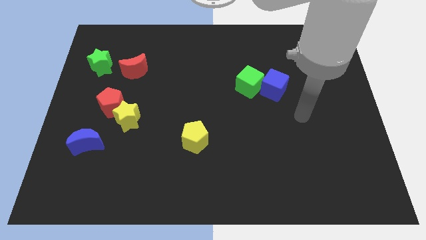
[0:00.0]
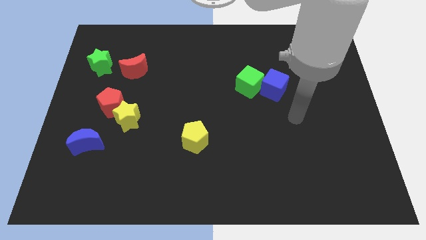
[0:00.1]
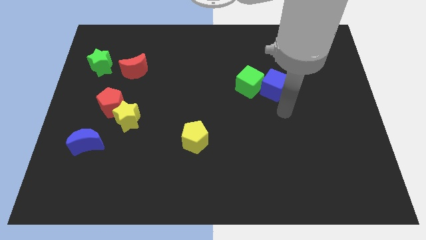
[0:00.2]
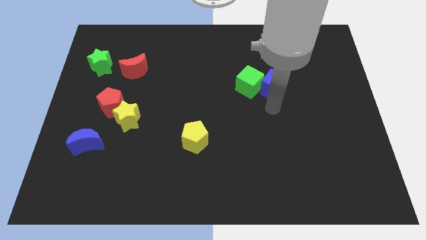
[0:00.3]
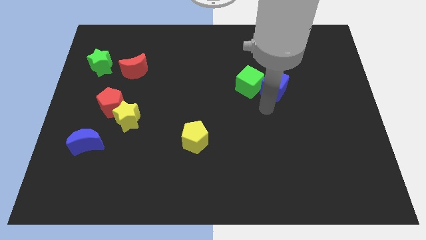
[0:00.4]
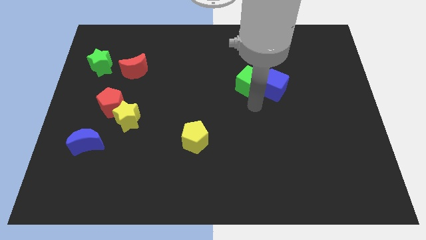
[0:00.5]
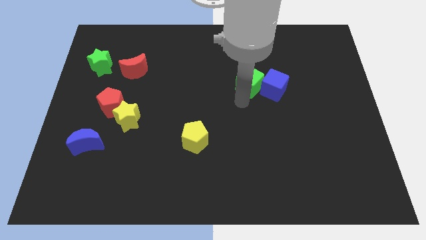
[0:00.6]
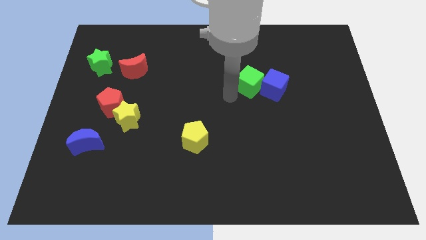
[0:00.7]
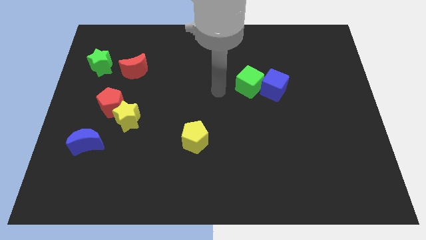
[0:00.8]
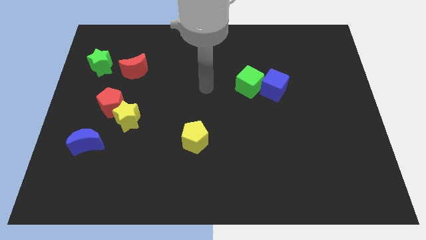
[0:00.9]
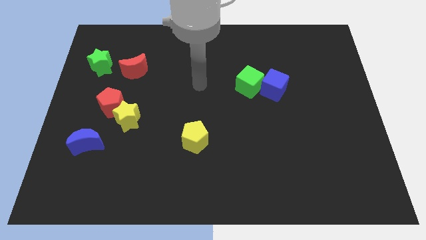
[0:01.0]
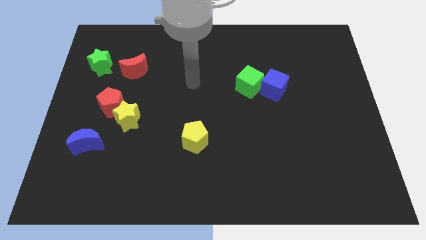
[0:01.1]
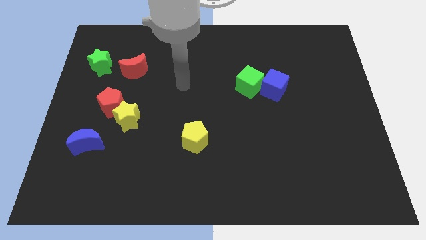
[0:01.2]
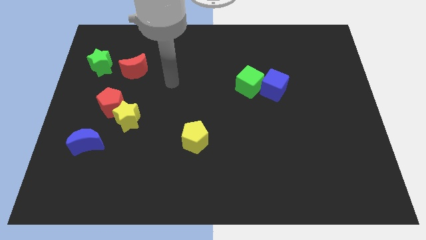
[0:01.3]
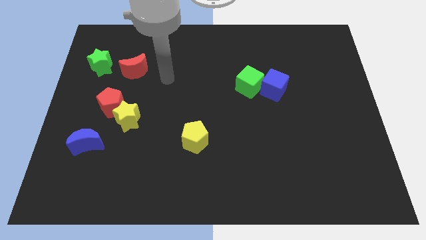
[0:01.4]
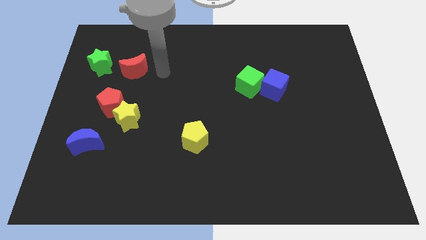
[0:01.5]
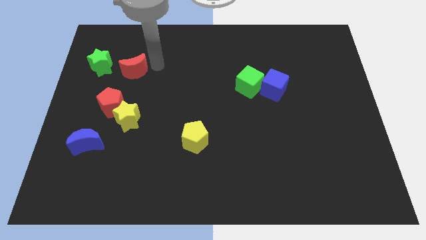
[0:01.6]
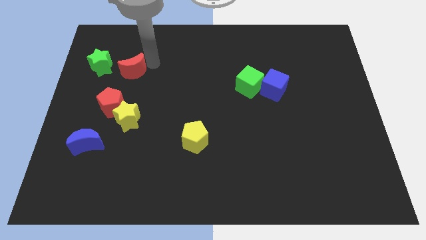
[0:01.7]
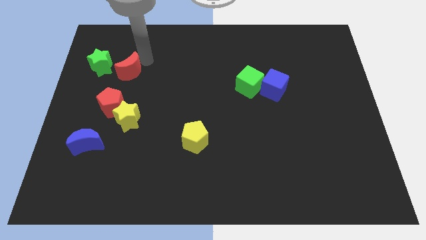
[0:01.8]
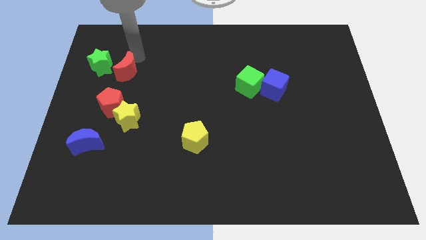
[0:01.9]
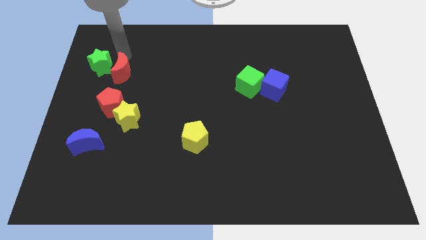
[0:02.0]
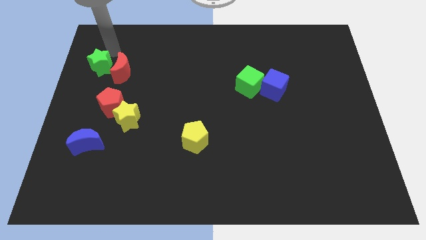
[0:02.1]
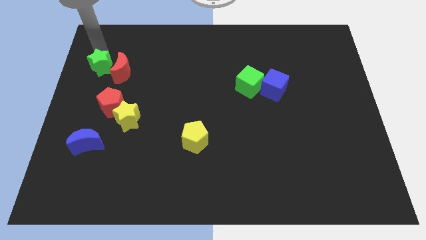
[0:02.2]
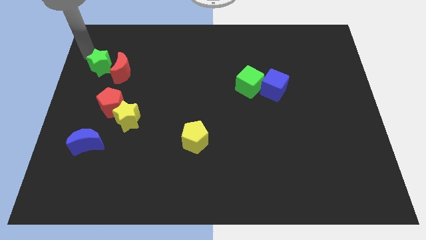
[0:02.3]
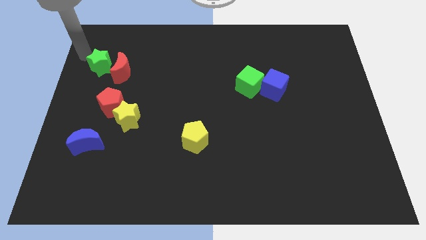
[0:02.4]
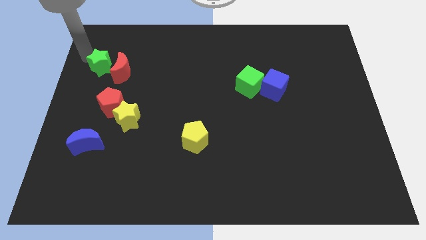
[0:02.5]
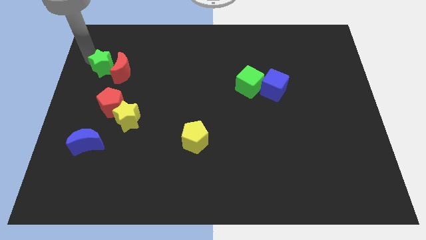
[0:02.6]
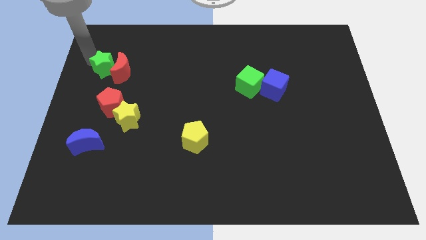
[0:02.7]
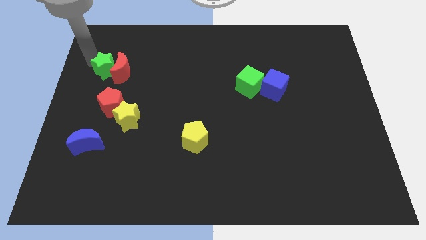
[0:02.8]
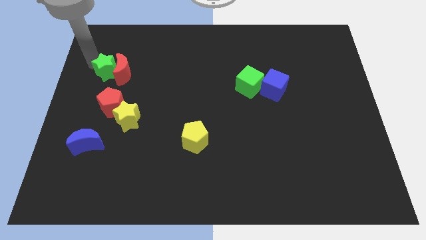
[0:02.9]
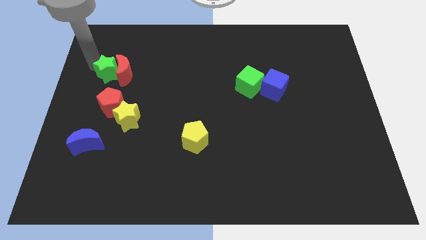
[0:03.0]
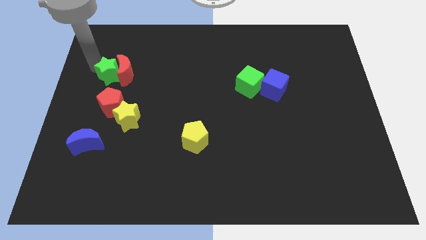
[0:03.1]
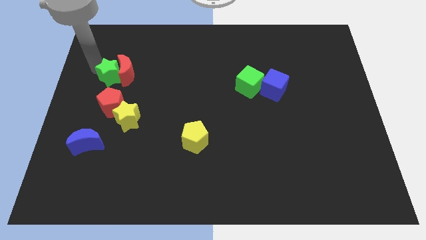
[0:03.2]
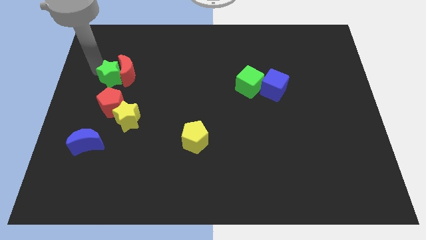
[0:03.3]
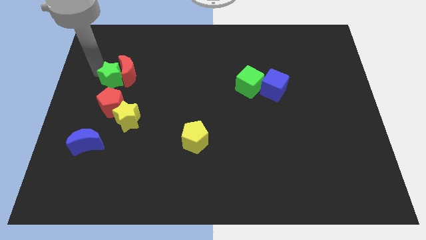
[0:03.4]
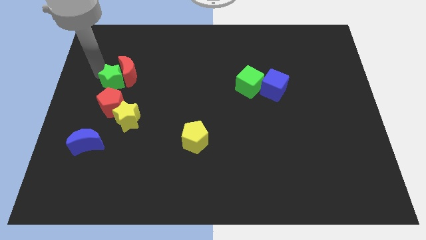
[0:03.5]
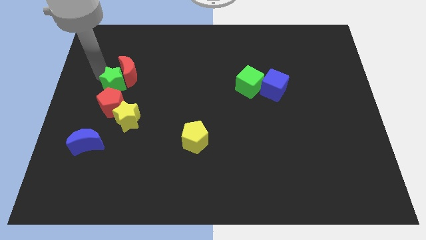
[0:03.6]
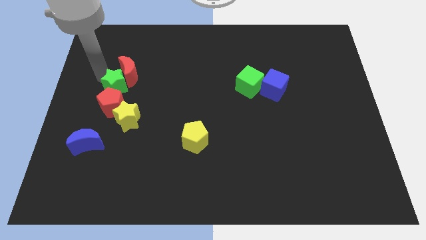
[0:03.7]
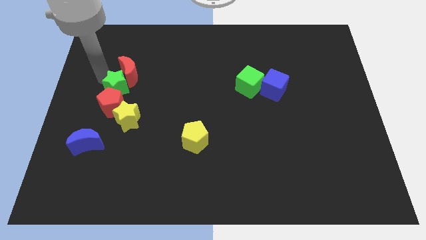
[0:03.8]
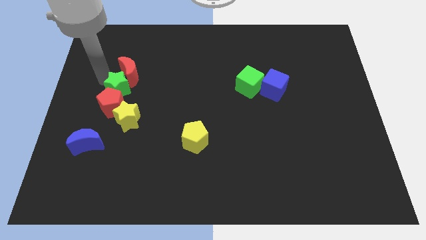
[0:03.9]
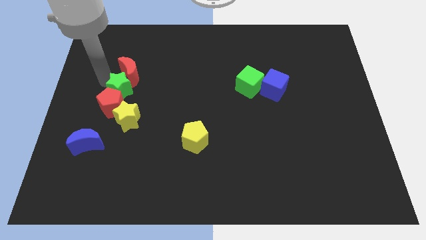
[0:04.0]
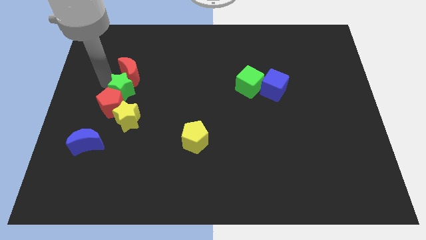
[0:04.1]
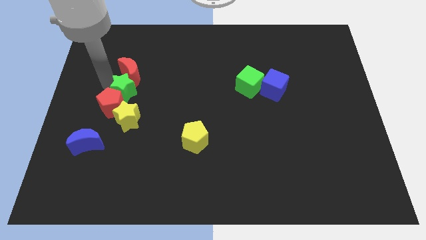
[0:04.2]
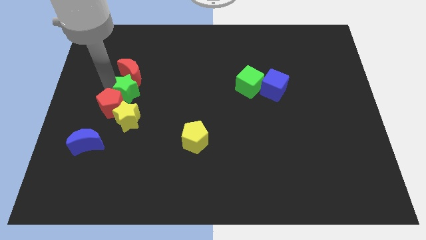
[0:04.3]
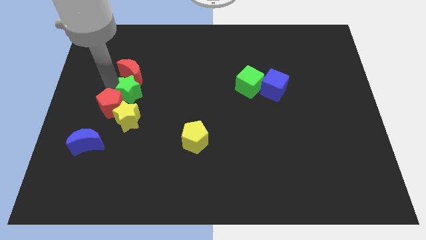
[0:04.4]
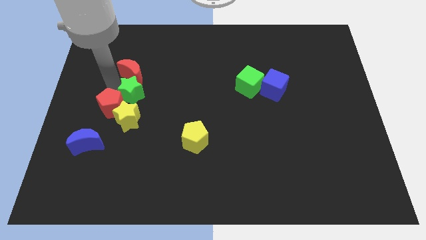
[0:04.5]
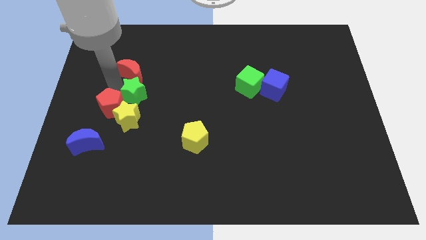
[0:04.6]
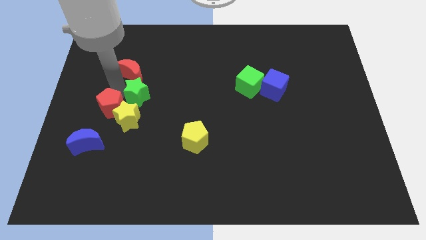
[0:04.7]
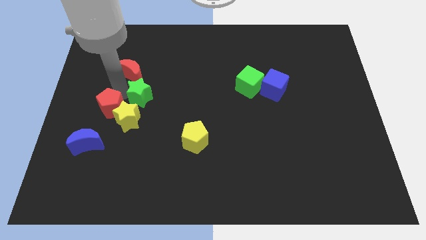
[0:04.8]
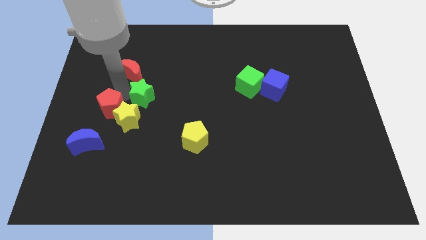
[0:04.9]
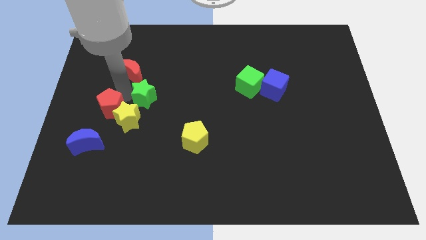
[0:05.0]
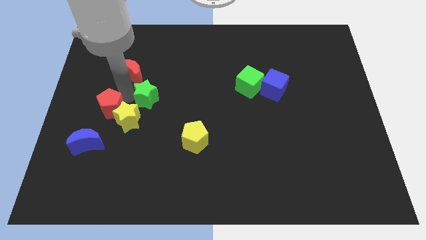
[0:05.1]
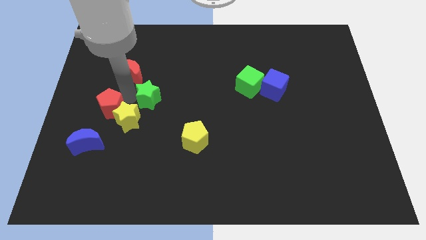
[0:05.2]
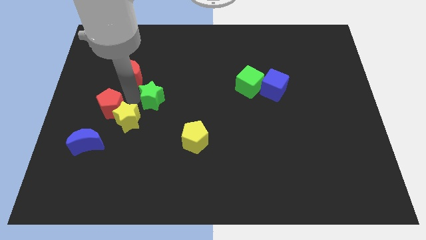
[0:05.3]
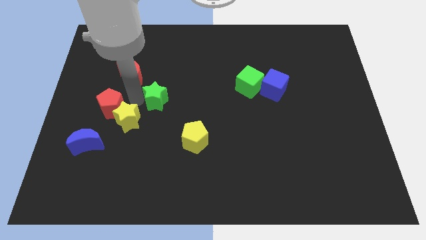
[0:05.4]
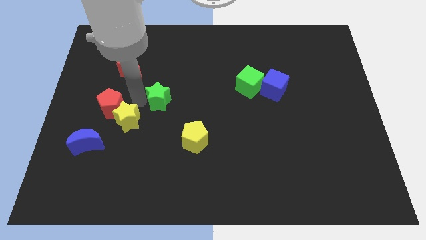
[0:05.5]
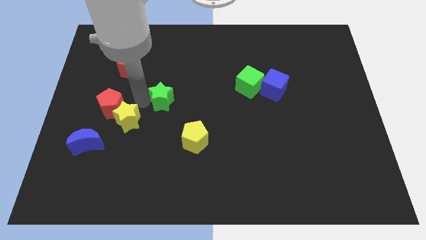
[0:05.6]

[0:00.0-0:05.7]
move the green star to the middle of the board

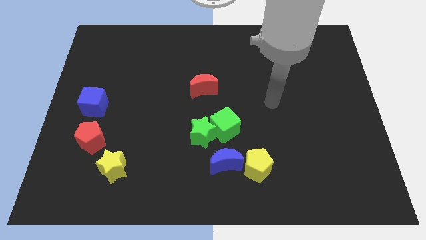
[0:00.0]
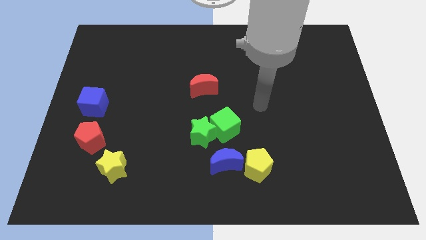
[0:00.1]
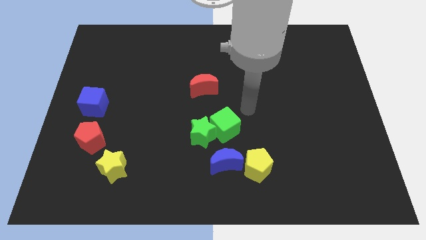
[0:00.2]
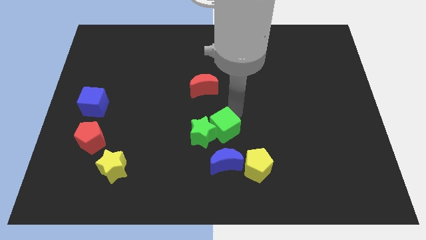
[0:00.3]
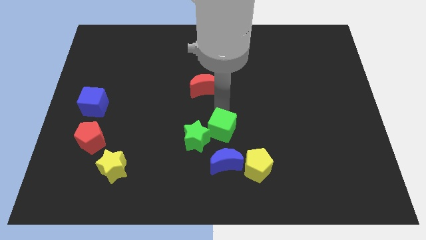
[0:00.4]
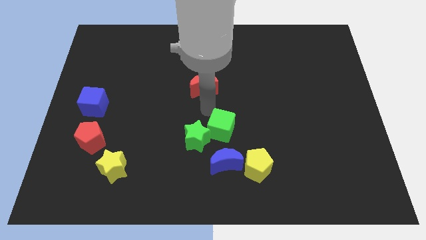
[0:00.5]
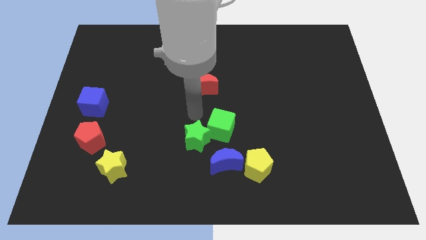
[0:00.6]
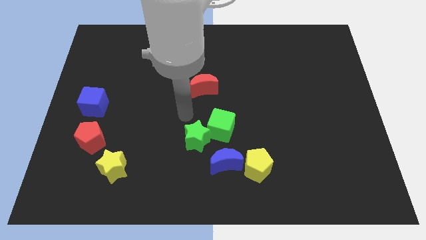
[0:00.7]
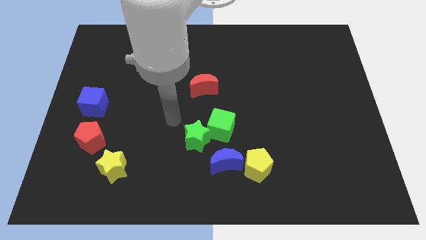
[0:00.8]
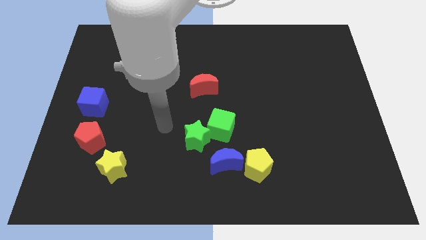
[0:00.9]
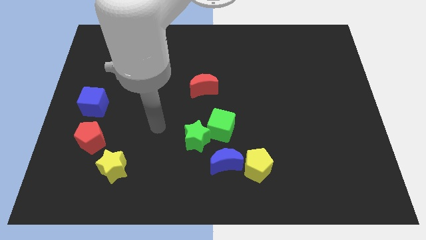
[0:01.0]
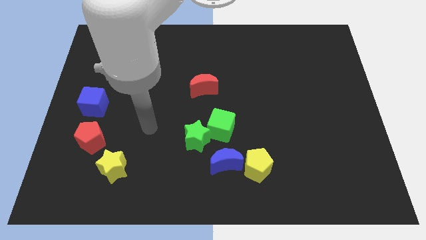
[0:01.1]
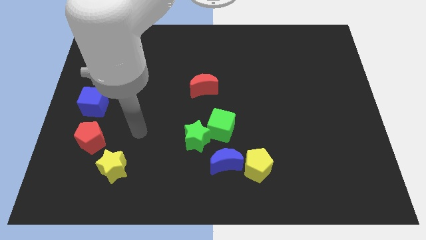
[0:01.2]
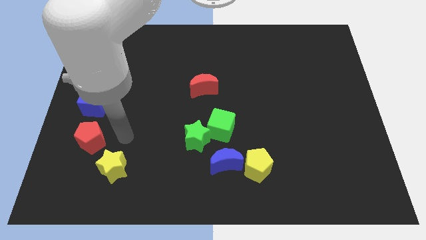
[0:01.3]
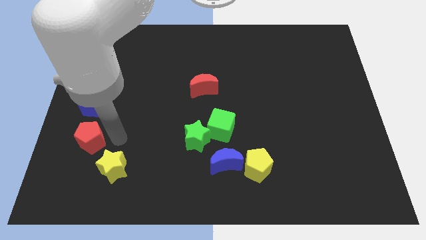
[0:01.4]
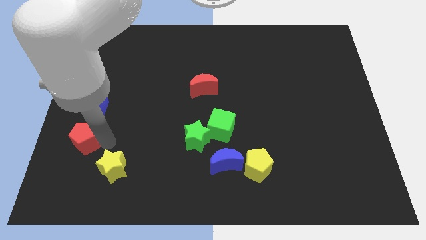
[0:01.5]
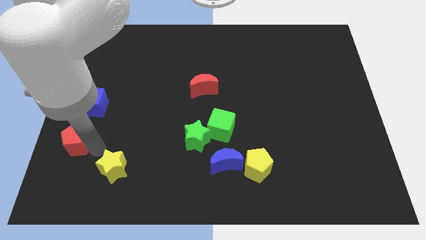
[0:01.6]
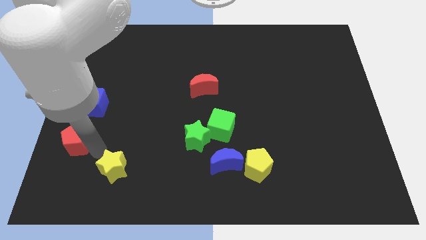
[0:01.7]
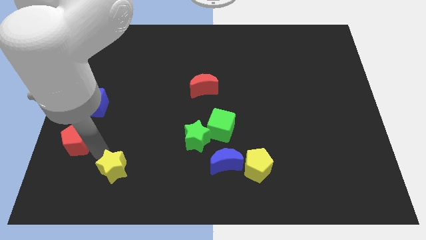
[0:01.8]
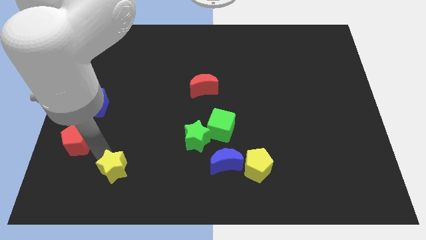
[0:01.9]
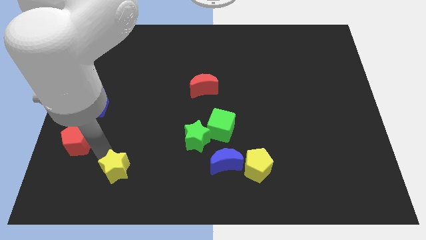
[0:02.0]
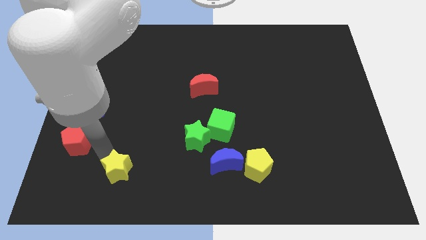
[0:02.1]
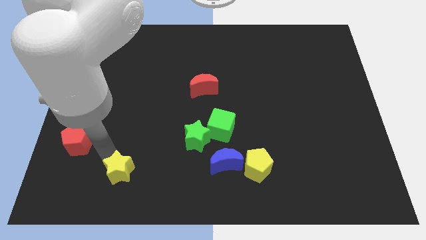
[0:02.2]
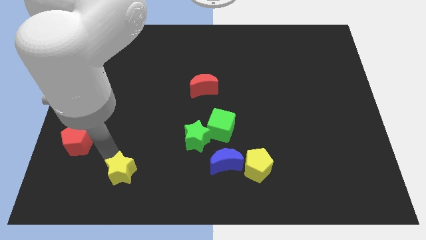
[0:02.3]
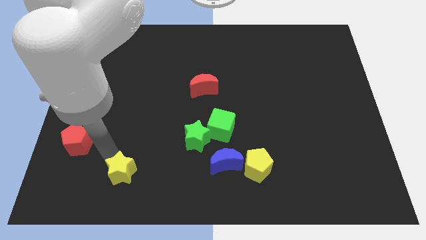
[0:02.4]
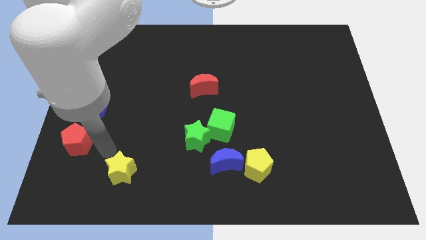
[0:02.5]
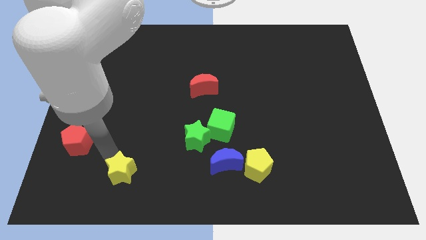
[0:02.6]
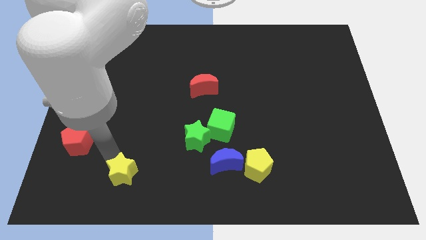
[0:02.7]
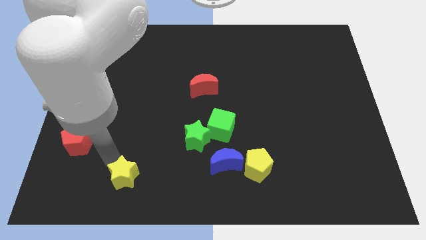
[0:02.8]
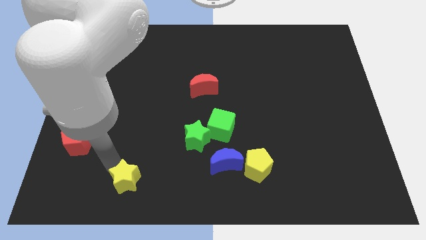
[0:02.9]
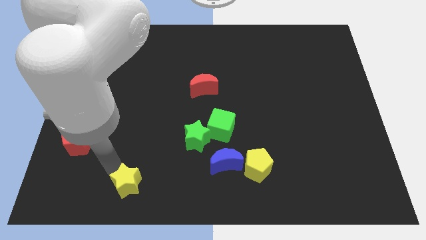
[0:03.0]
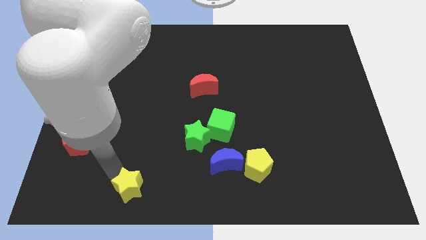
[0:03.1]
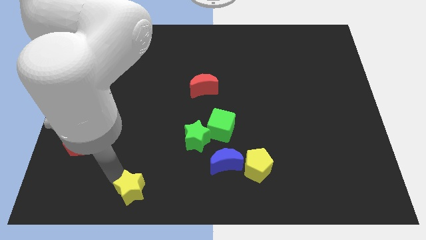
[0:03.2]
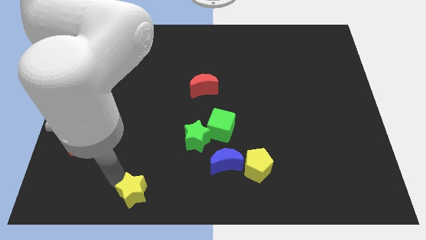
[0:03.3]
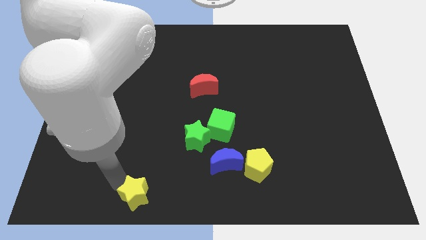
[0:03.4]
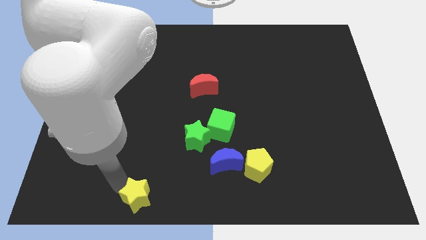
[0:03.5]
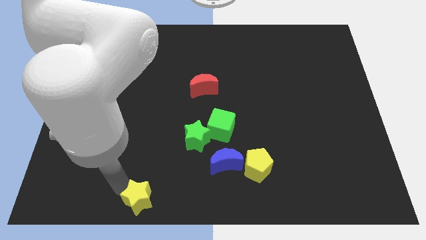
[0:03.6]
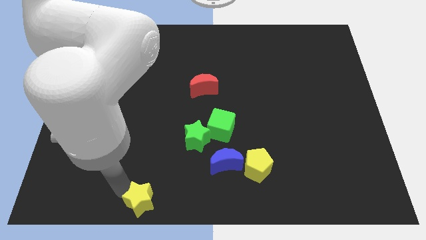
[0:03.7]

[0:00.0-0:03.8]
put the yellow star to the bottom side
